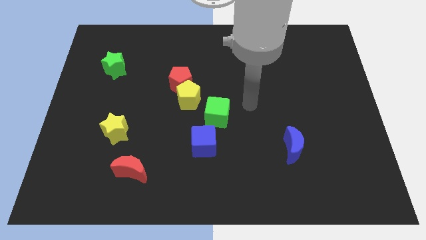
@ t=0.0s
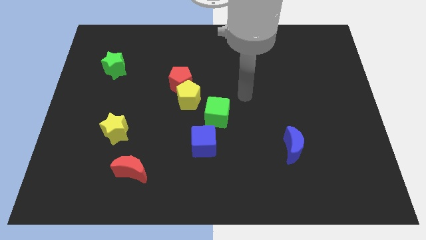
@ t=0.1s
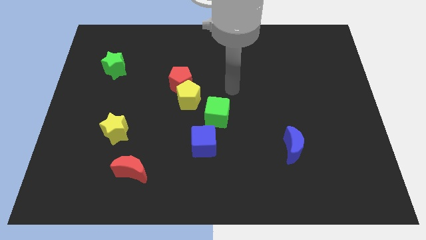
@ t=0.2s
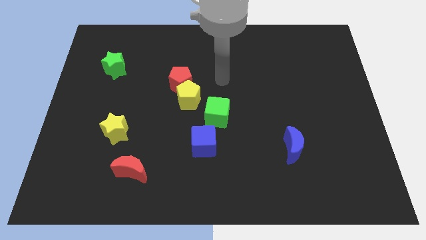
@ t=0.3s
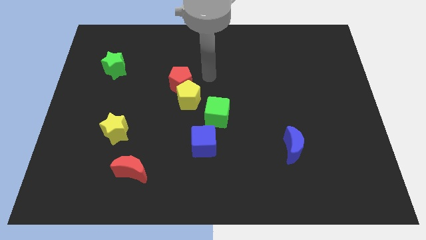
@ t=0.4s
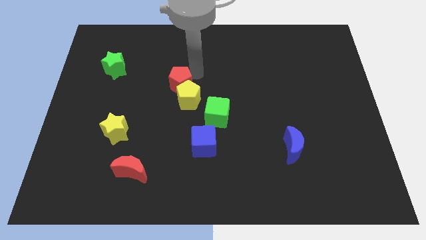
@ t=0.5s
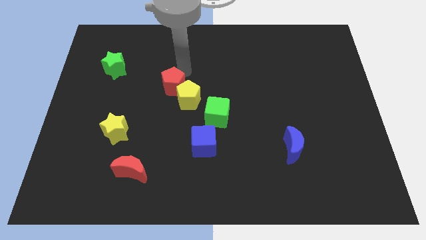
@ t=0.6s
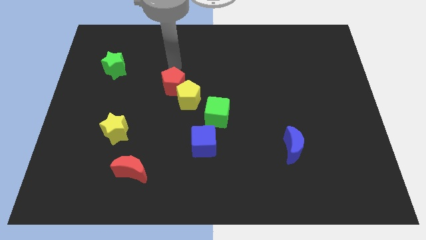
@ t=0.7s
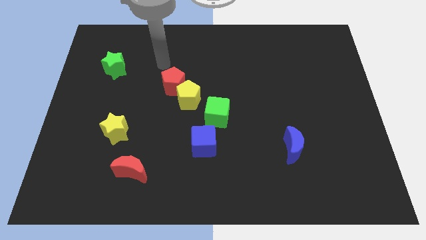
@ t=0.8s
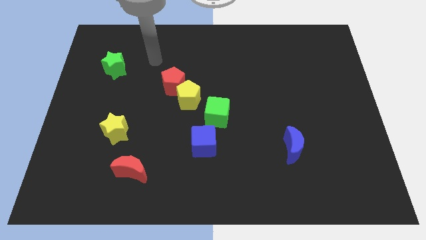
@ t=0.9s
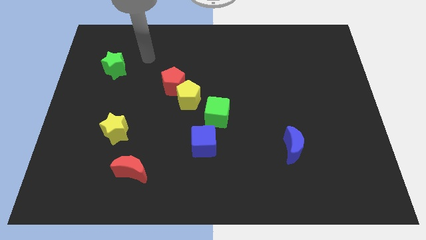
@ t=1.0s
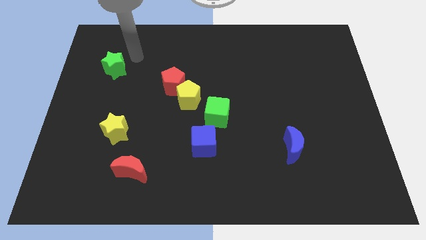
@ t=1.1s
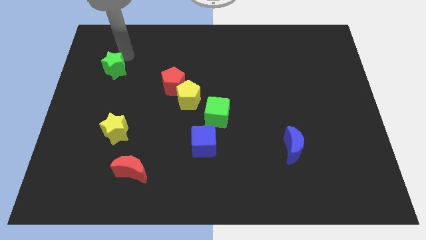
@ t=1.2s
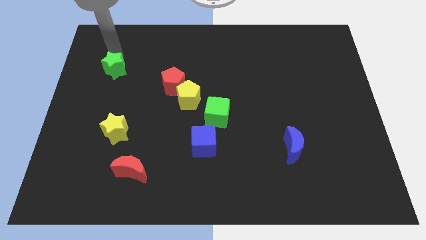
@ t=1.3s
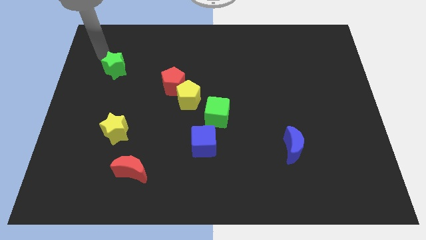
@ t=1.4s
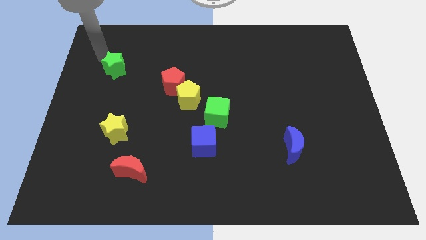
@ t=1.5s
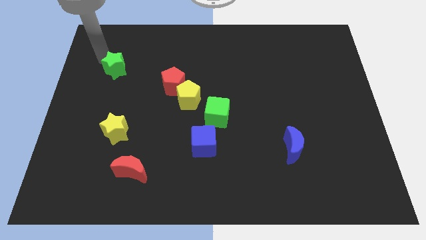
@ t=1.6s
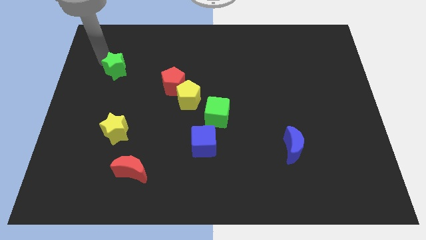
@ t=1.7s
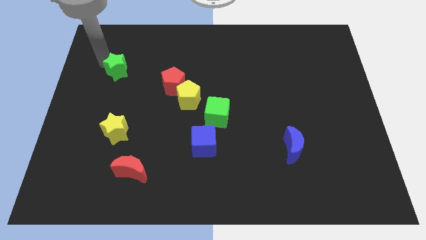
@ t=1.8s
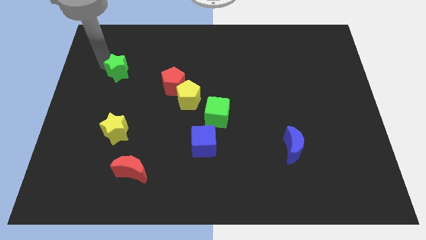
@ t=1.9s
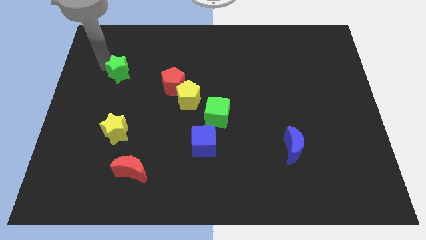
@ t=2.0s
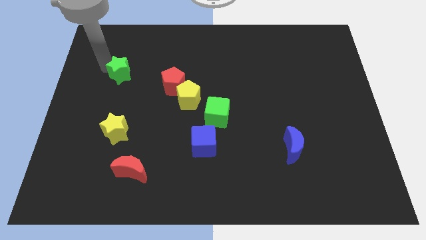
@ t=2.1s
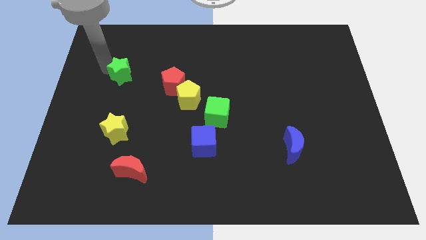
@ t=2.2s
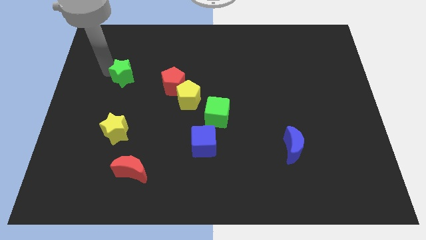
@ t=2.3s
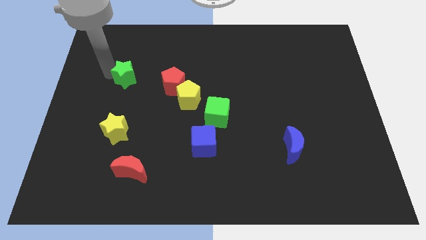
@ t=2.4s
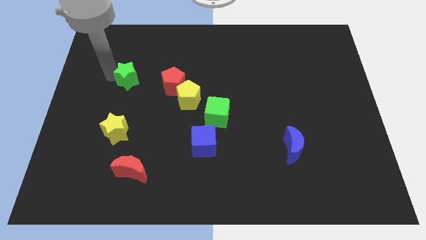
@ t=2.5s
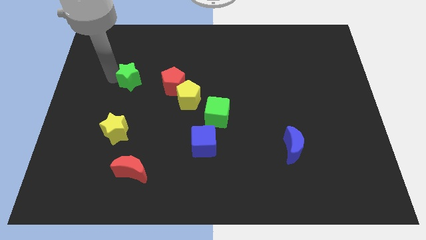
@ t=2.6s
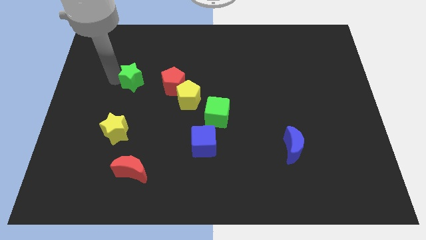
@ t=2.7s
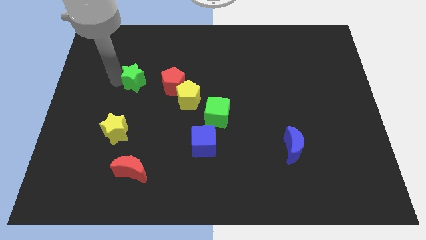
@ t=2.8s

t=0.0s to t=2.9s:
push the green star slightly down and to the right

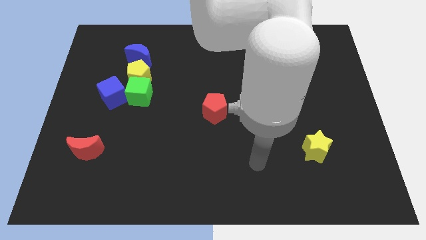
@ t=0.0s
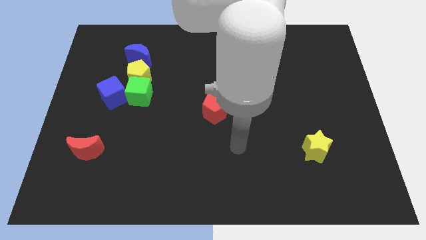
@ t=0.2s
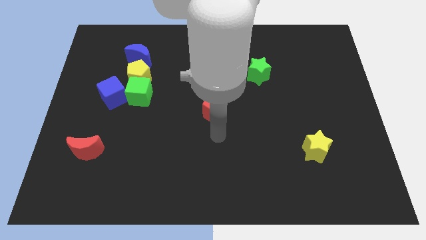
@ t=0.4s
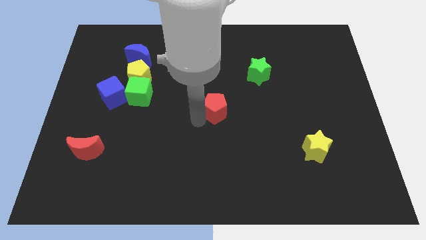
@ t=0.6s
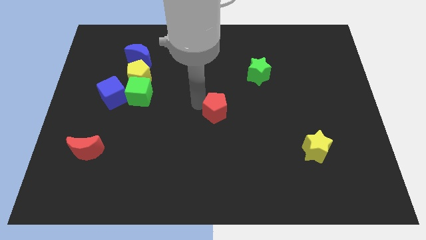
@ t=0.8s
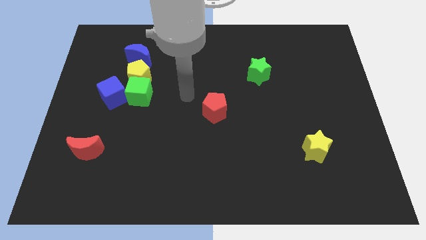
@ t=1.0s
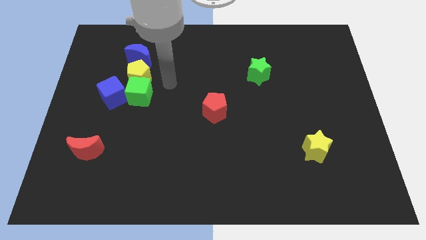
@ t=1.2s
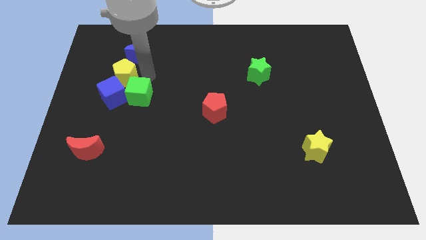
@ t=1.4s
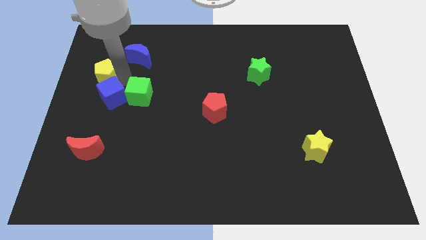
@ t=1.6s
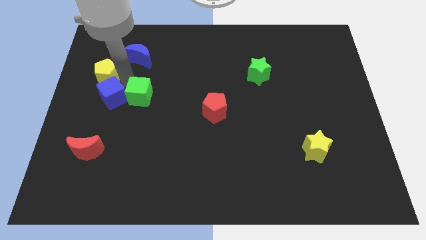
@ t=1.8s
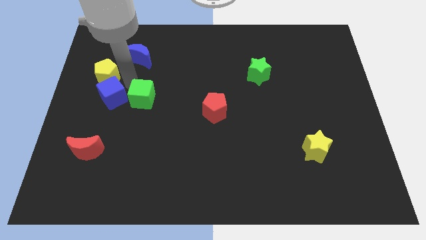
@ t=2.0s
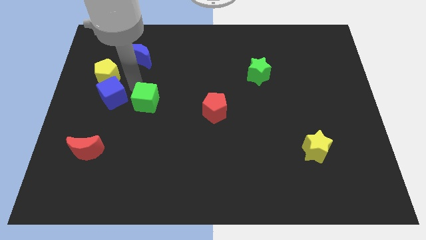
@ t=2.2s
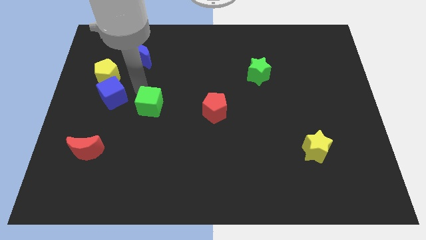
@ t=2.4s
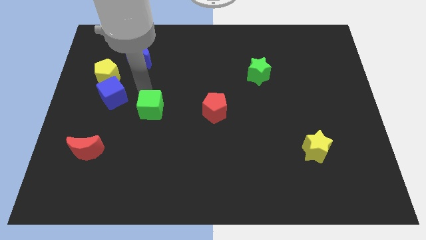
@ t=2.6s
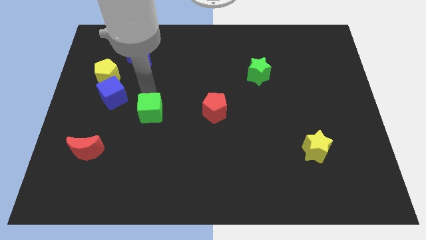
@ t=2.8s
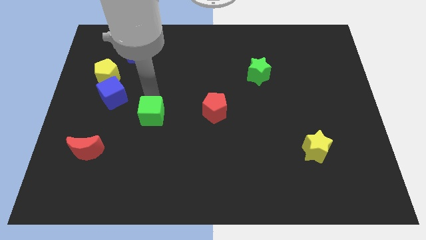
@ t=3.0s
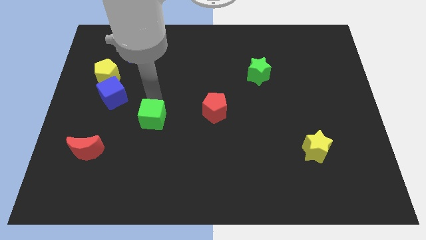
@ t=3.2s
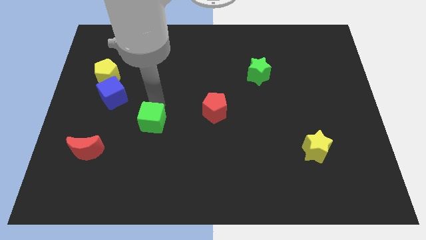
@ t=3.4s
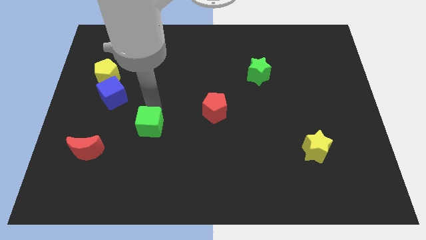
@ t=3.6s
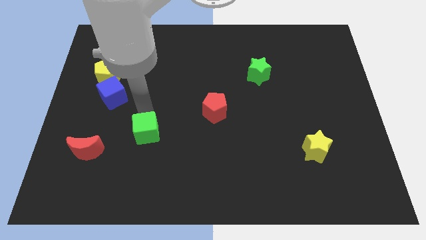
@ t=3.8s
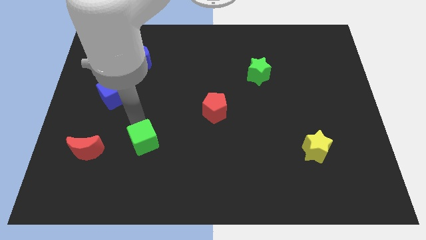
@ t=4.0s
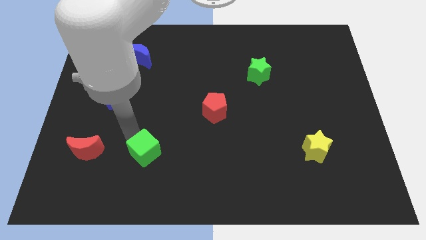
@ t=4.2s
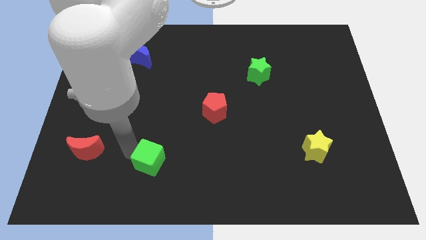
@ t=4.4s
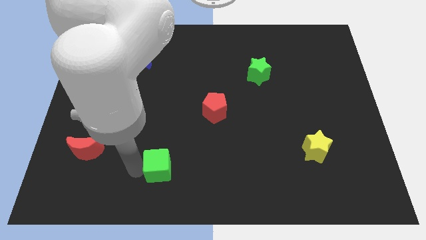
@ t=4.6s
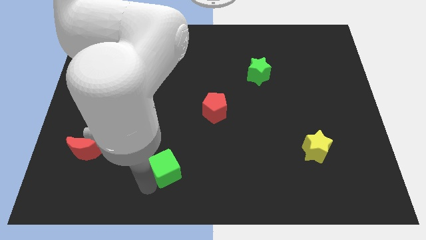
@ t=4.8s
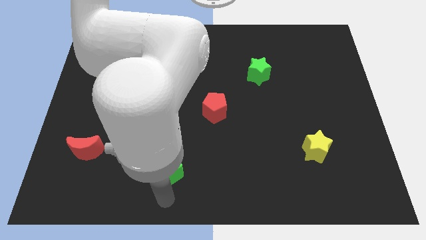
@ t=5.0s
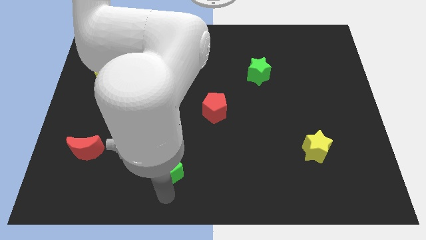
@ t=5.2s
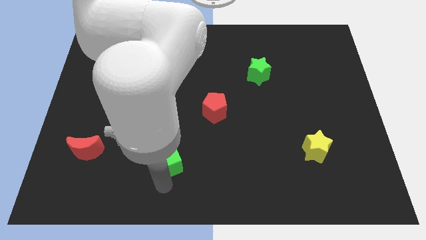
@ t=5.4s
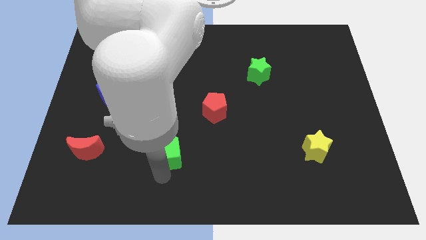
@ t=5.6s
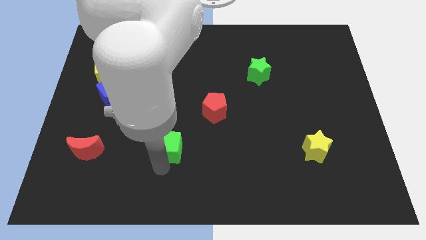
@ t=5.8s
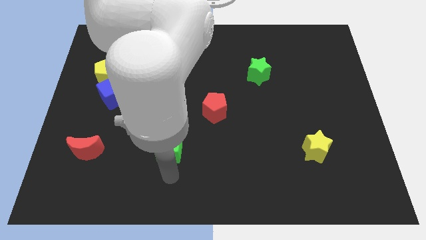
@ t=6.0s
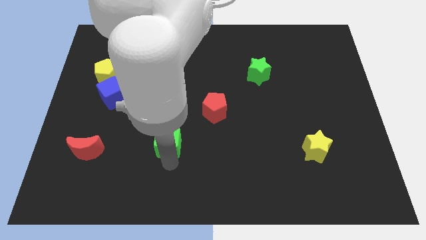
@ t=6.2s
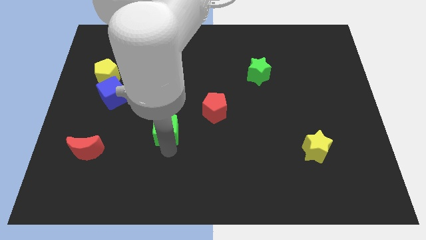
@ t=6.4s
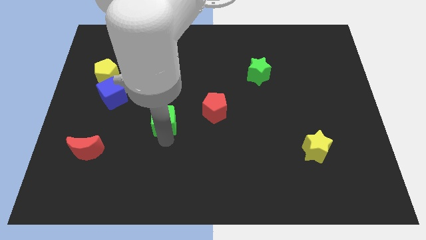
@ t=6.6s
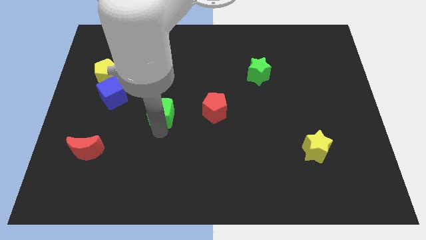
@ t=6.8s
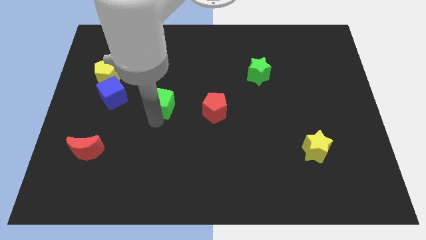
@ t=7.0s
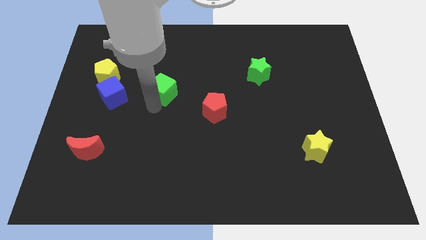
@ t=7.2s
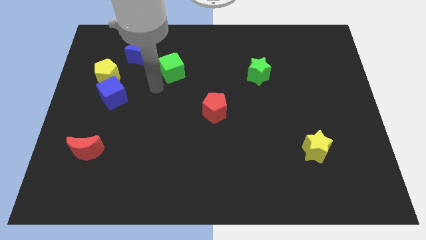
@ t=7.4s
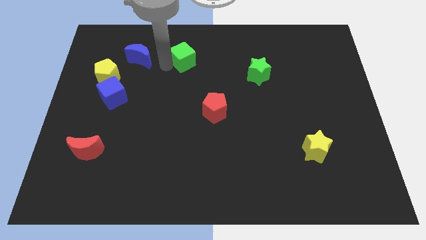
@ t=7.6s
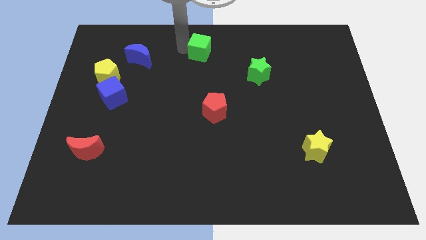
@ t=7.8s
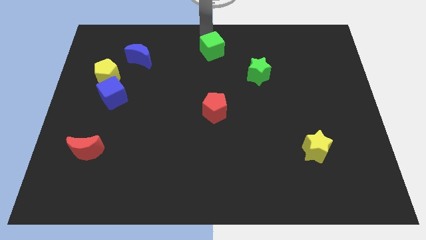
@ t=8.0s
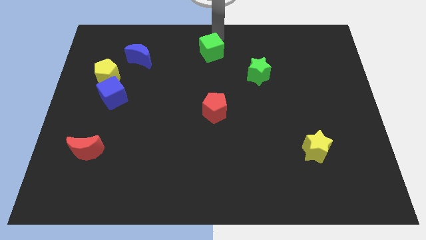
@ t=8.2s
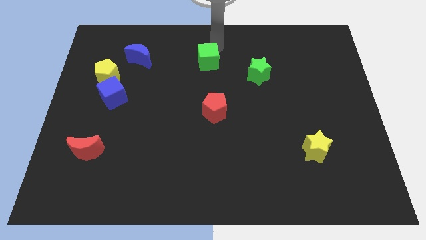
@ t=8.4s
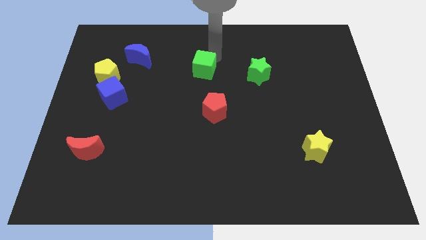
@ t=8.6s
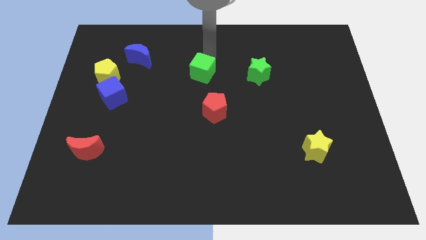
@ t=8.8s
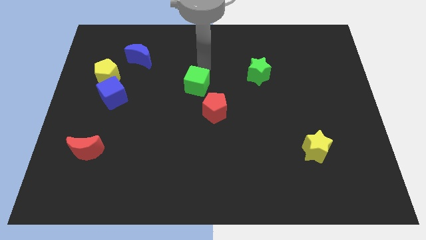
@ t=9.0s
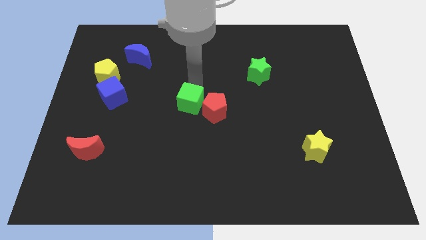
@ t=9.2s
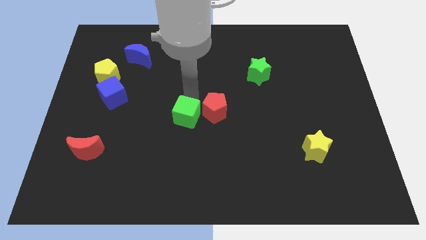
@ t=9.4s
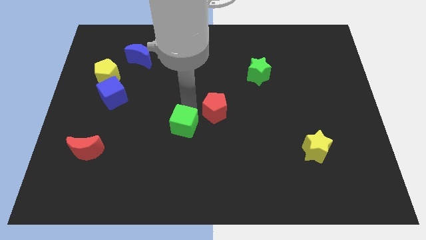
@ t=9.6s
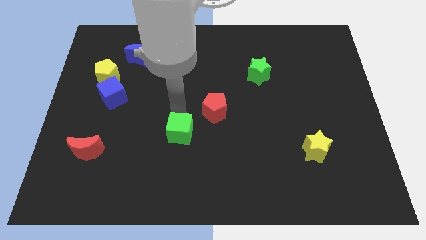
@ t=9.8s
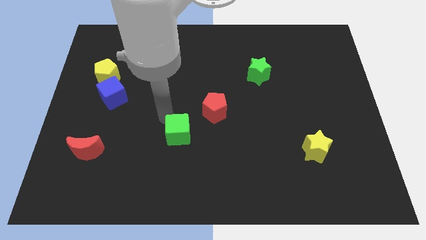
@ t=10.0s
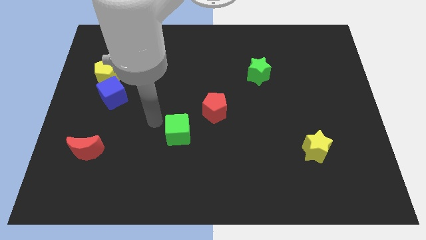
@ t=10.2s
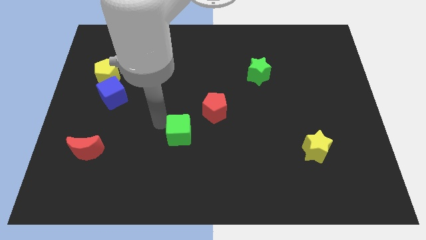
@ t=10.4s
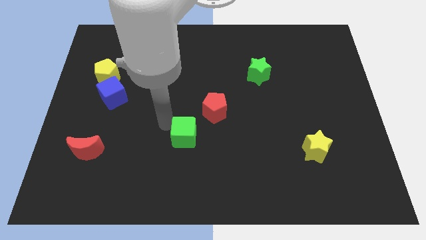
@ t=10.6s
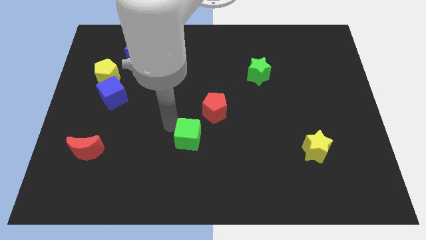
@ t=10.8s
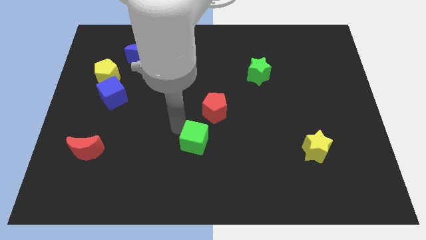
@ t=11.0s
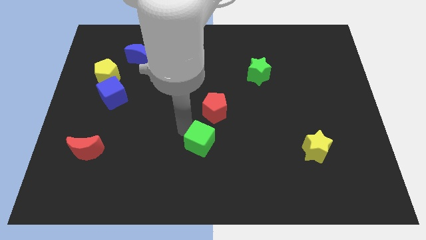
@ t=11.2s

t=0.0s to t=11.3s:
push the green cube downwards and right diagonally
